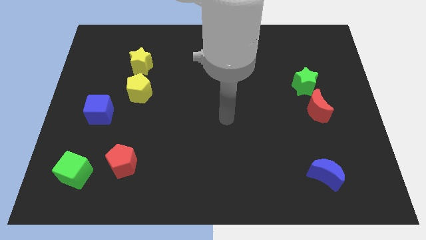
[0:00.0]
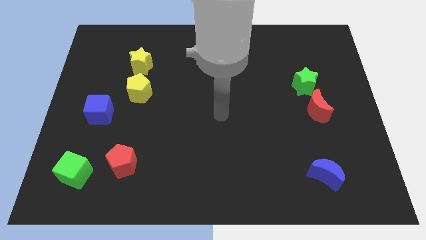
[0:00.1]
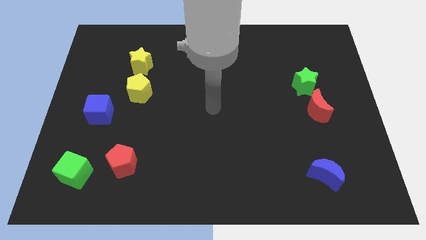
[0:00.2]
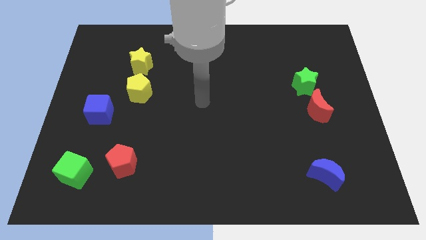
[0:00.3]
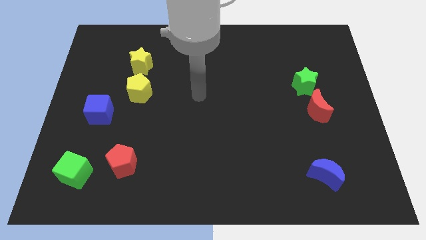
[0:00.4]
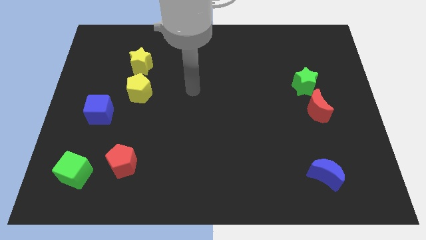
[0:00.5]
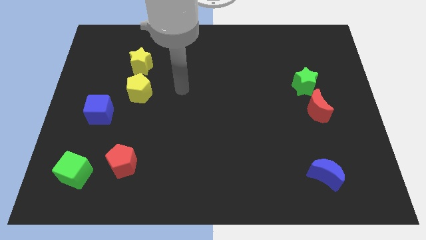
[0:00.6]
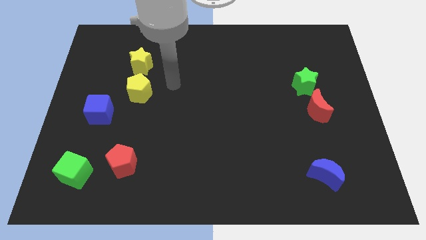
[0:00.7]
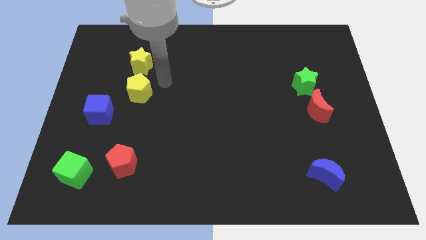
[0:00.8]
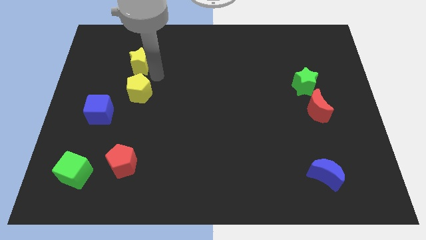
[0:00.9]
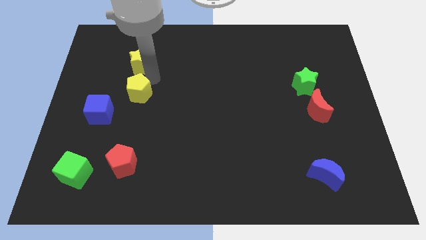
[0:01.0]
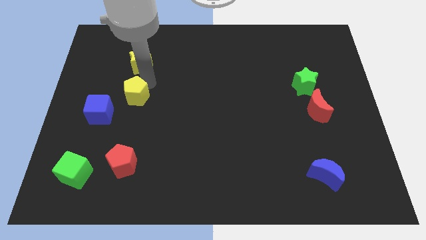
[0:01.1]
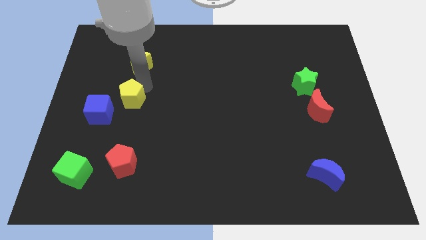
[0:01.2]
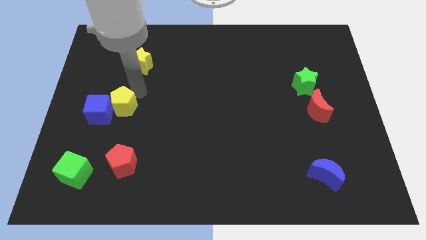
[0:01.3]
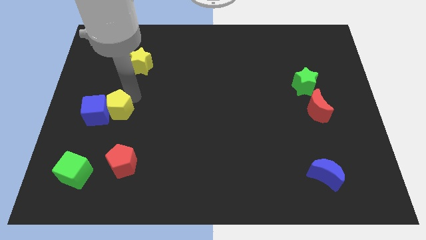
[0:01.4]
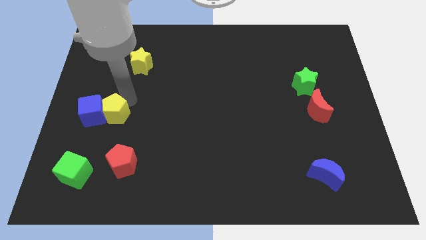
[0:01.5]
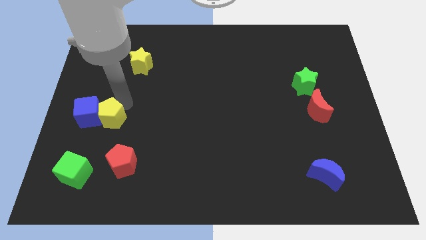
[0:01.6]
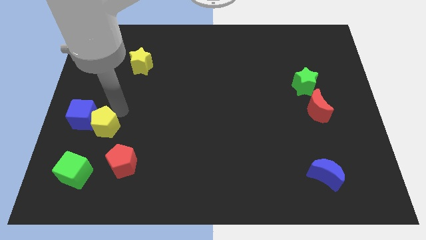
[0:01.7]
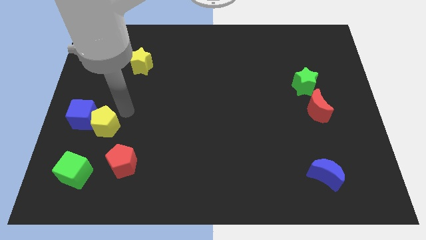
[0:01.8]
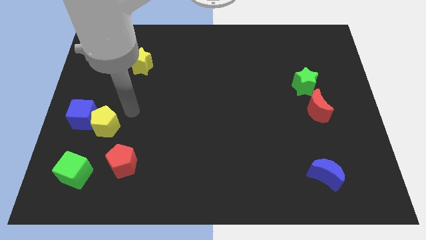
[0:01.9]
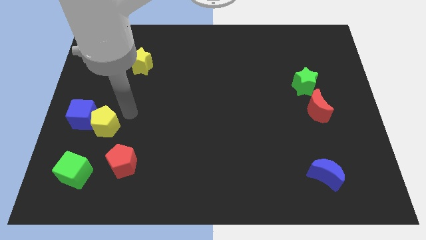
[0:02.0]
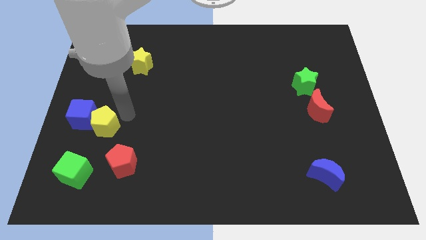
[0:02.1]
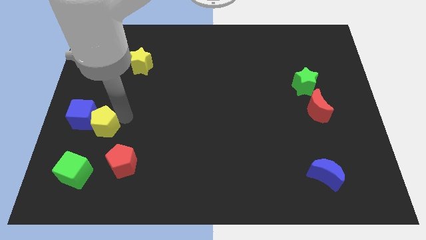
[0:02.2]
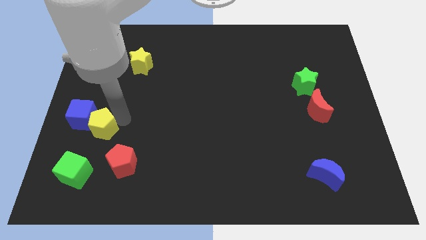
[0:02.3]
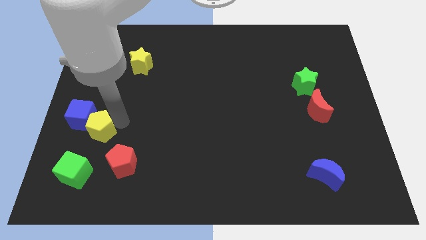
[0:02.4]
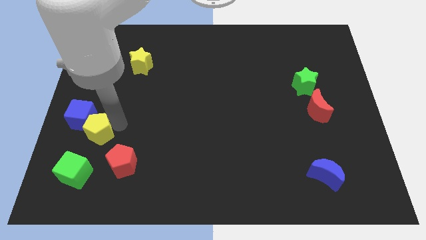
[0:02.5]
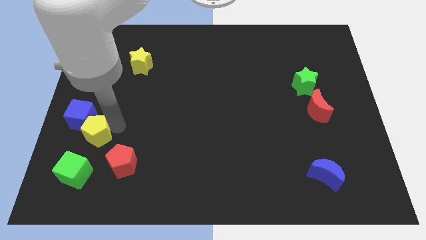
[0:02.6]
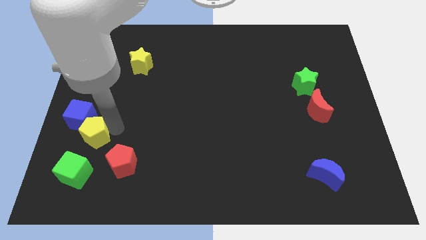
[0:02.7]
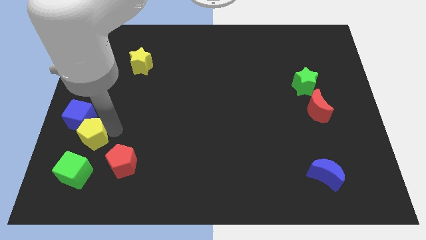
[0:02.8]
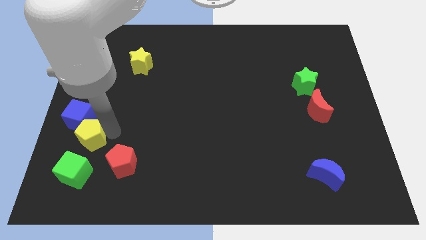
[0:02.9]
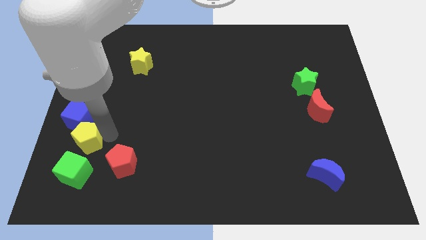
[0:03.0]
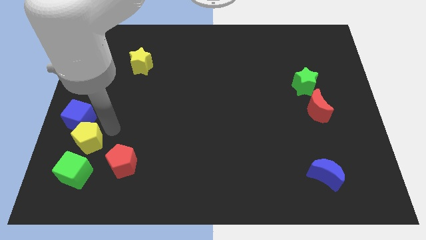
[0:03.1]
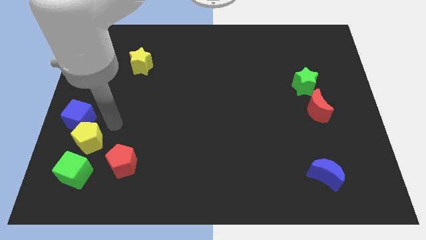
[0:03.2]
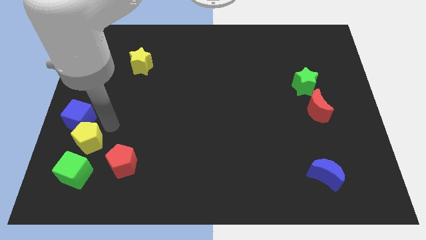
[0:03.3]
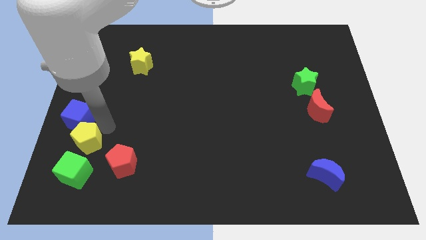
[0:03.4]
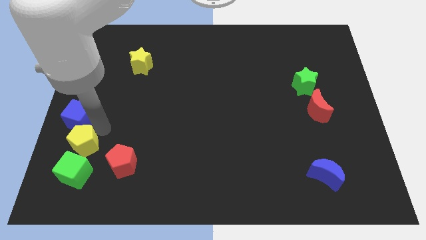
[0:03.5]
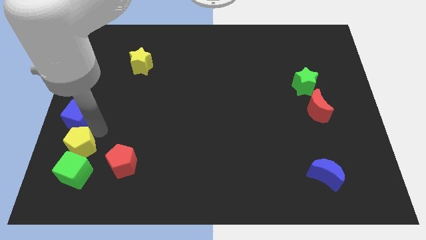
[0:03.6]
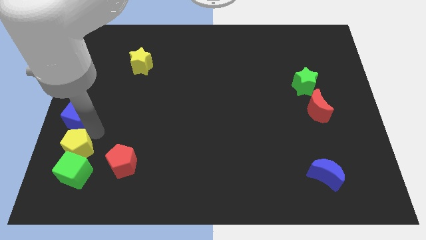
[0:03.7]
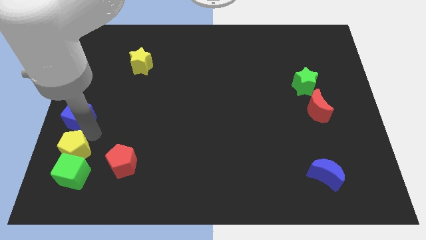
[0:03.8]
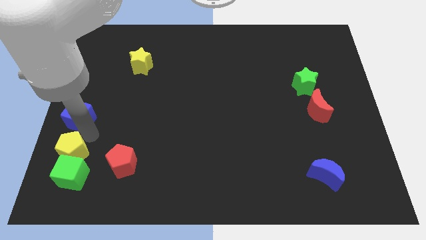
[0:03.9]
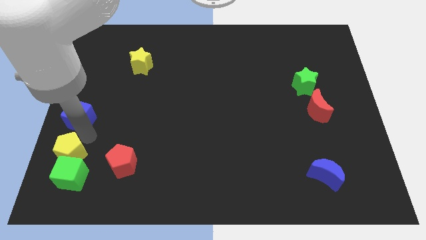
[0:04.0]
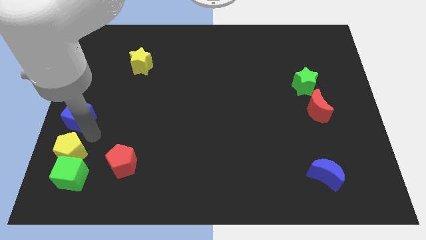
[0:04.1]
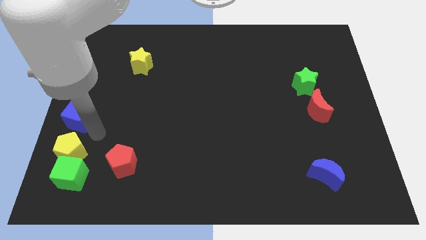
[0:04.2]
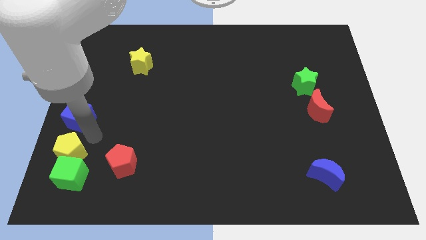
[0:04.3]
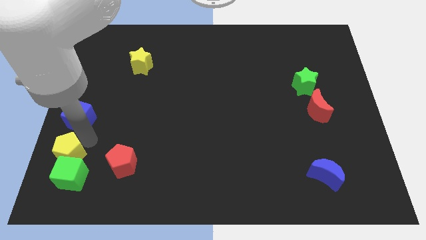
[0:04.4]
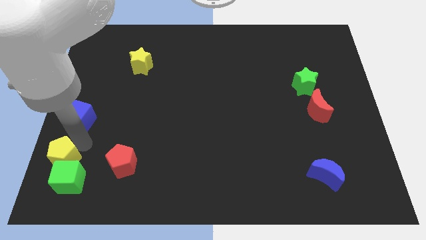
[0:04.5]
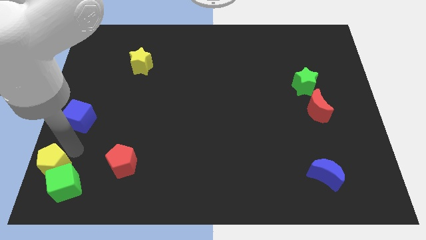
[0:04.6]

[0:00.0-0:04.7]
put the yellow pentagon to the bottom left corner

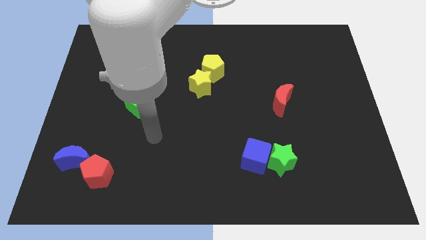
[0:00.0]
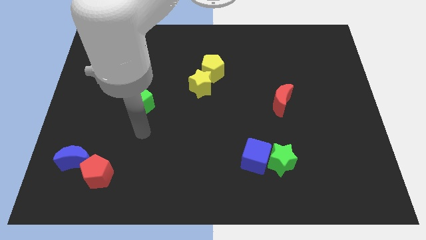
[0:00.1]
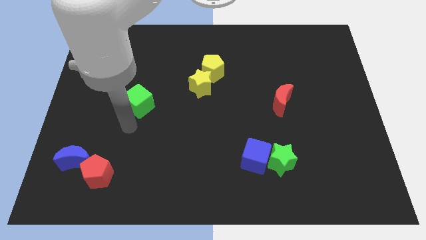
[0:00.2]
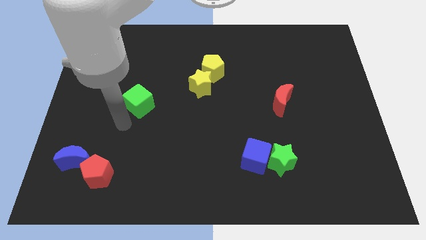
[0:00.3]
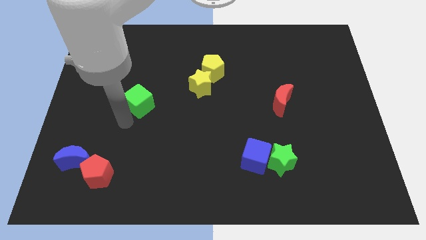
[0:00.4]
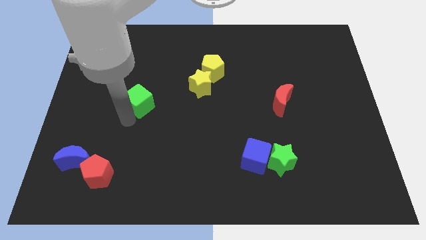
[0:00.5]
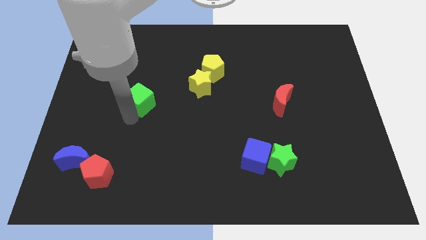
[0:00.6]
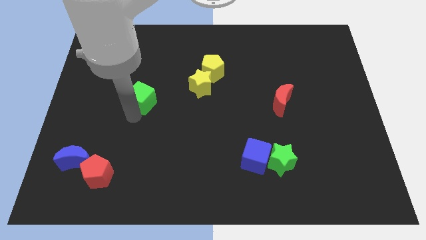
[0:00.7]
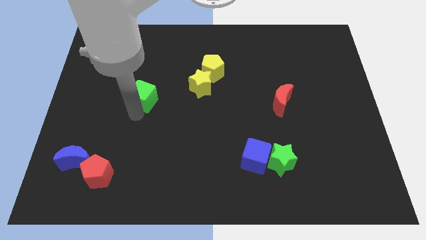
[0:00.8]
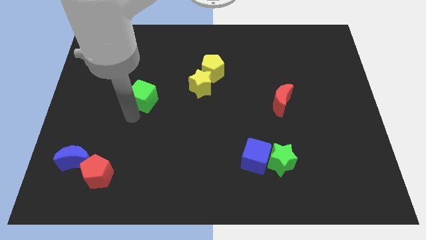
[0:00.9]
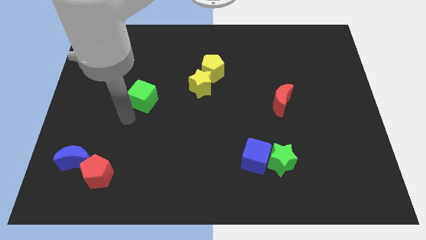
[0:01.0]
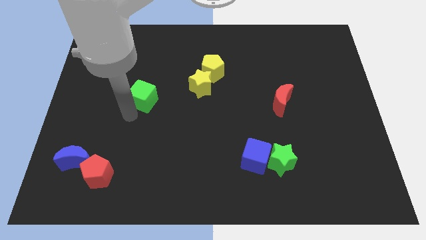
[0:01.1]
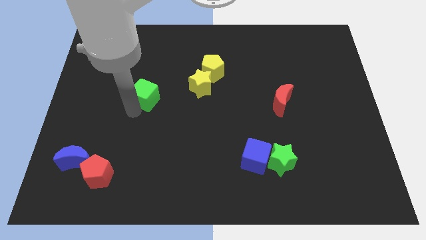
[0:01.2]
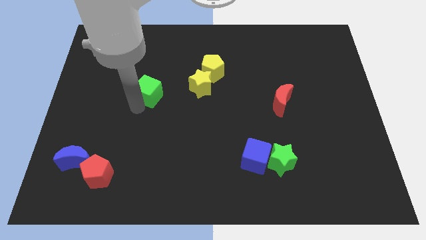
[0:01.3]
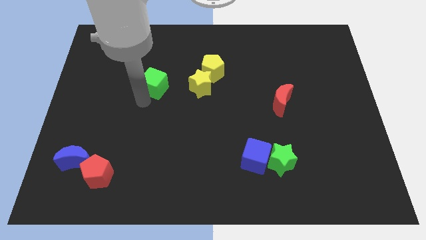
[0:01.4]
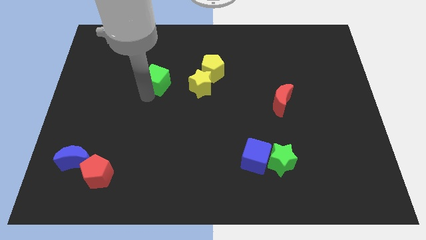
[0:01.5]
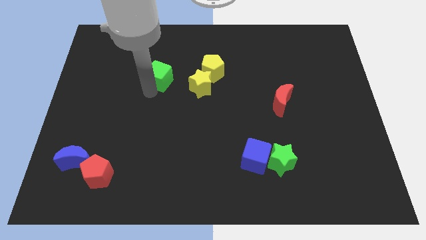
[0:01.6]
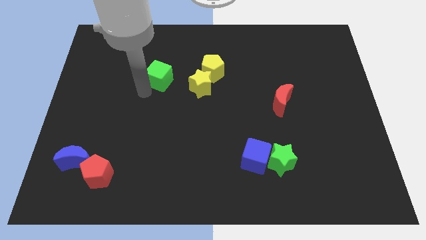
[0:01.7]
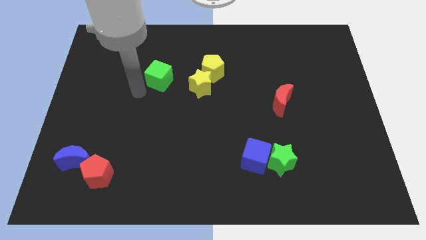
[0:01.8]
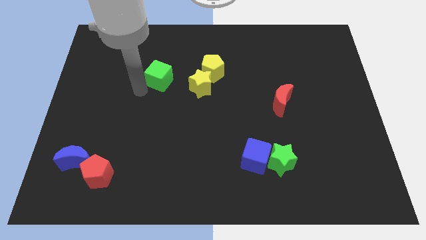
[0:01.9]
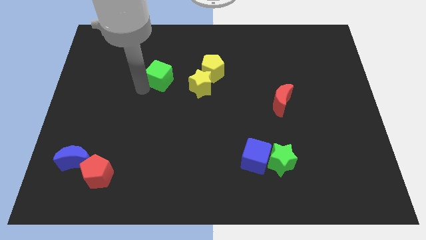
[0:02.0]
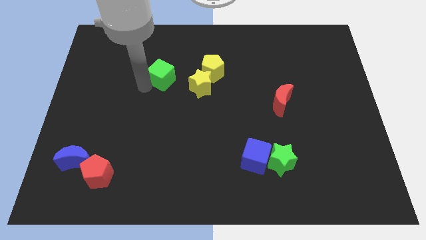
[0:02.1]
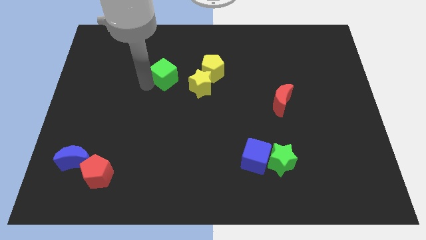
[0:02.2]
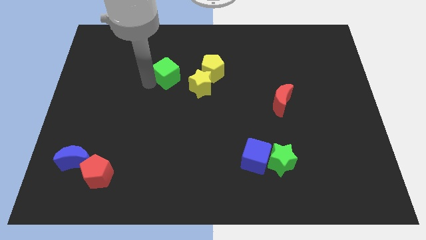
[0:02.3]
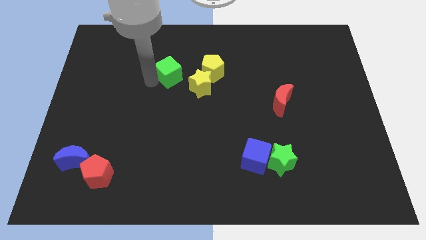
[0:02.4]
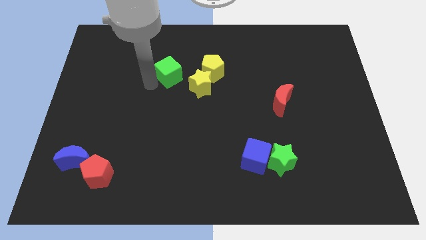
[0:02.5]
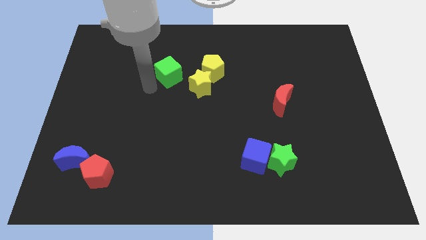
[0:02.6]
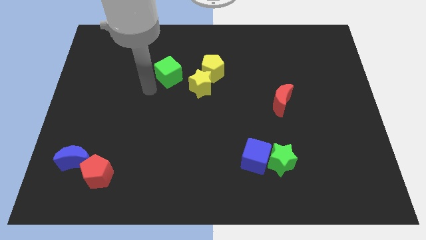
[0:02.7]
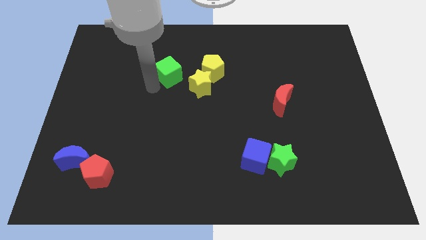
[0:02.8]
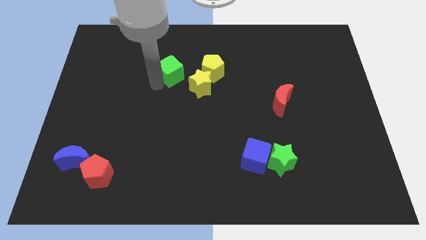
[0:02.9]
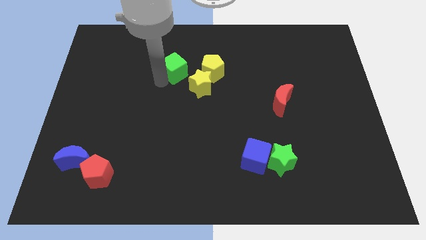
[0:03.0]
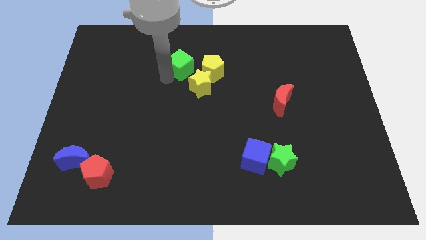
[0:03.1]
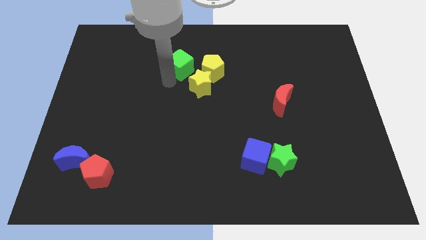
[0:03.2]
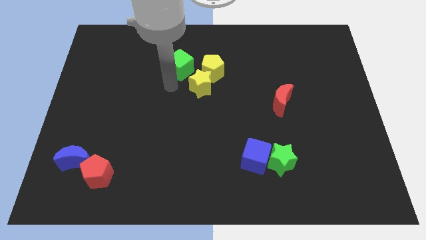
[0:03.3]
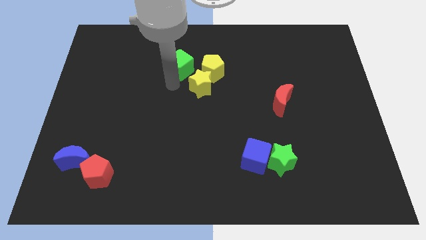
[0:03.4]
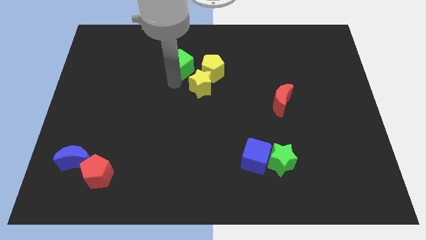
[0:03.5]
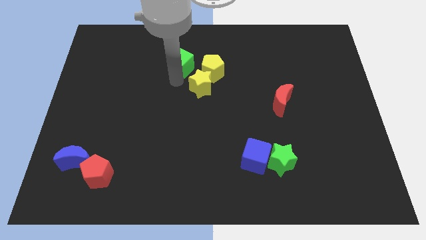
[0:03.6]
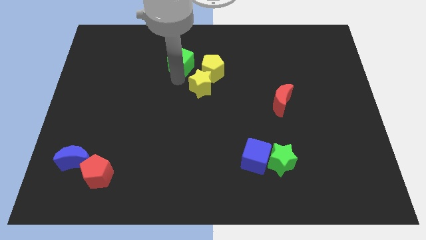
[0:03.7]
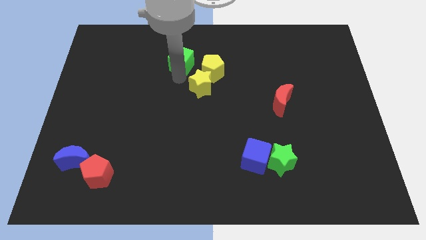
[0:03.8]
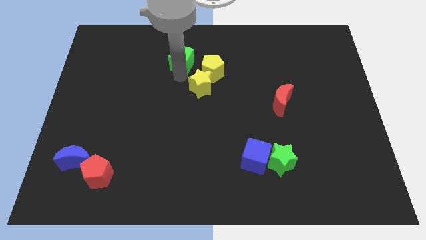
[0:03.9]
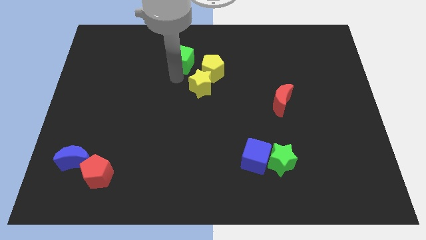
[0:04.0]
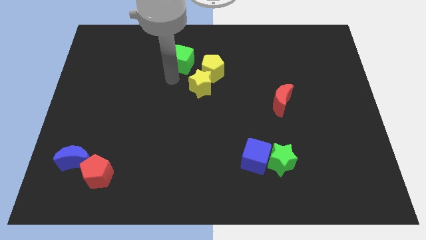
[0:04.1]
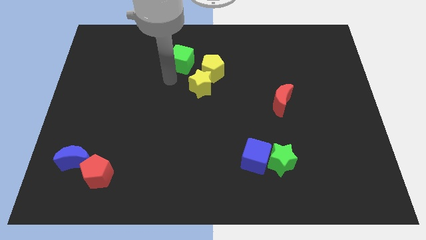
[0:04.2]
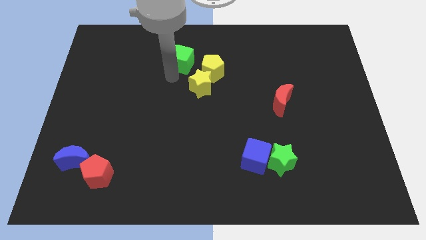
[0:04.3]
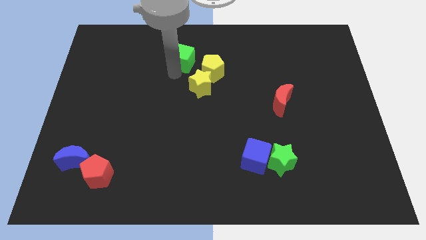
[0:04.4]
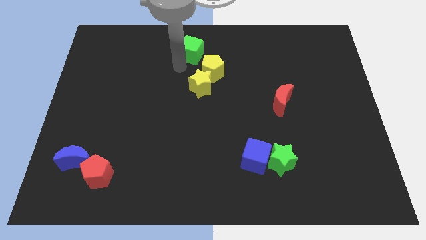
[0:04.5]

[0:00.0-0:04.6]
move the green cube to the towards your base
